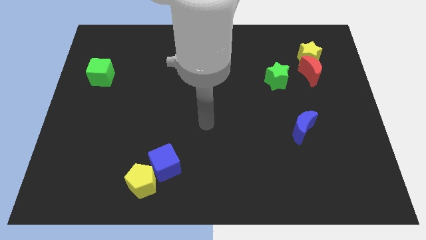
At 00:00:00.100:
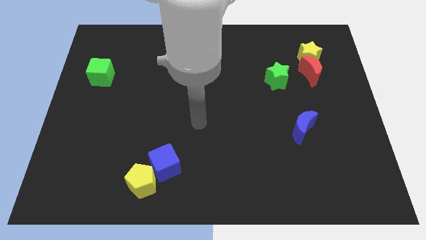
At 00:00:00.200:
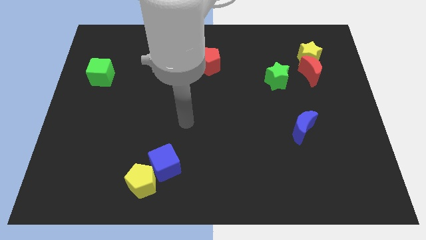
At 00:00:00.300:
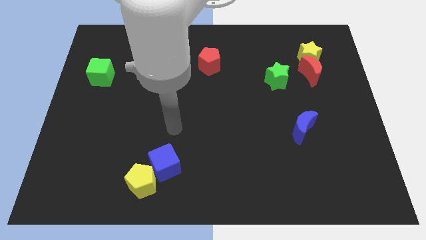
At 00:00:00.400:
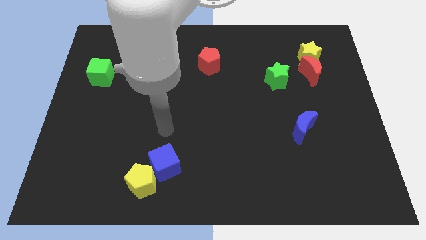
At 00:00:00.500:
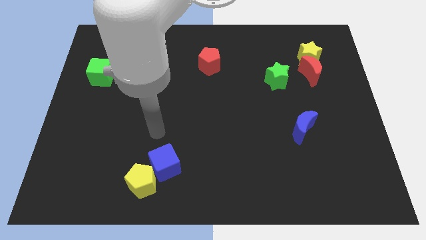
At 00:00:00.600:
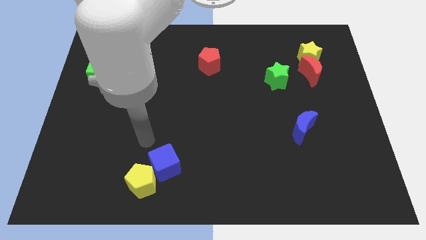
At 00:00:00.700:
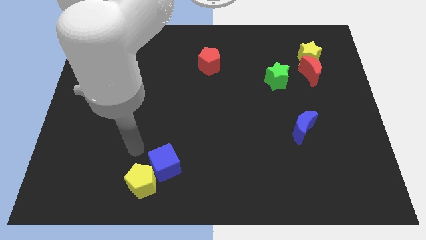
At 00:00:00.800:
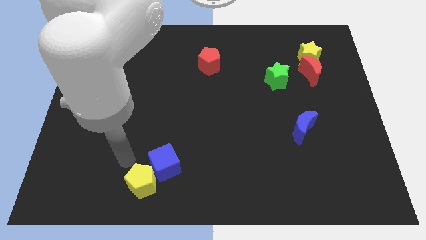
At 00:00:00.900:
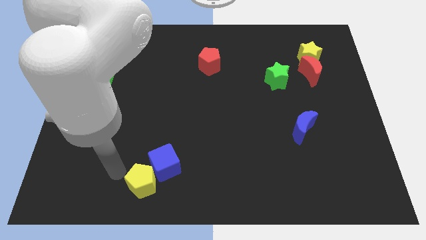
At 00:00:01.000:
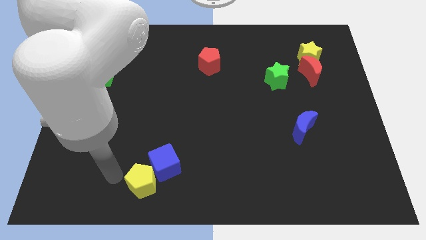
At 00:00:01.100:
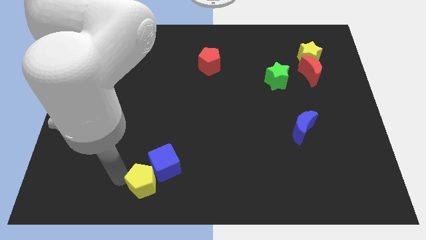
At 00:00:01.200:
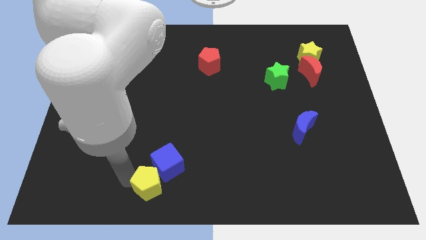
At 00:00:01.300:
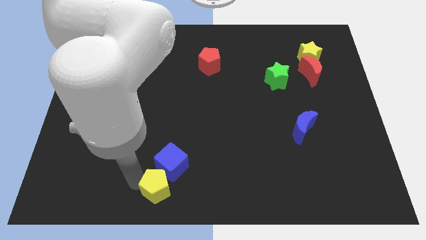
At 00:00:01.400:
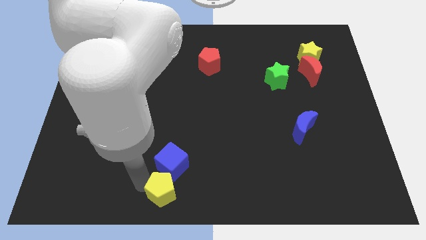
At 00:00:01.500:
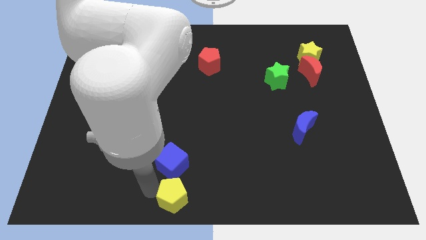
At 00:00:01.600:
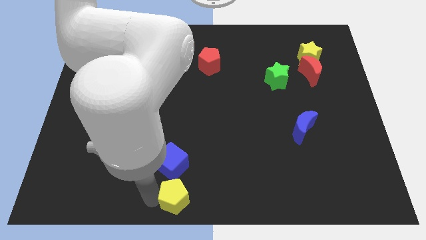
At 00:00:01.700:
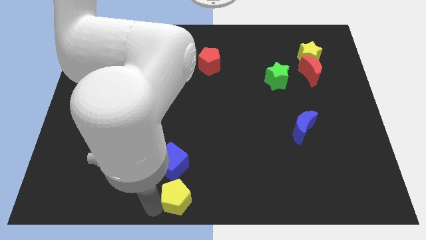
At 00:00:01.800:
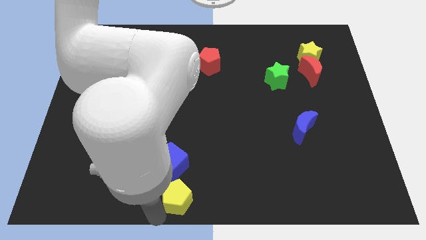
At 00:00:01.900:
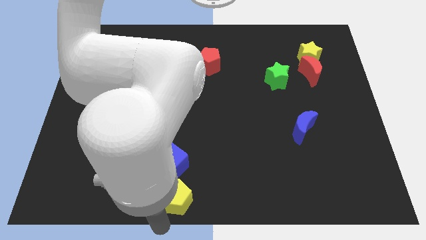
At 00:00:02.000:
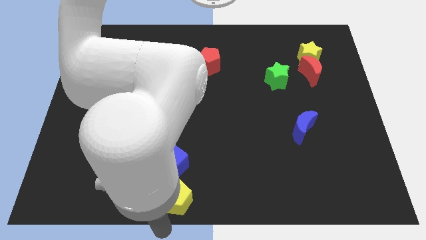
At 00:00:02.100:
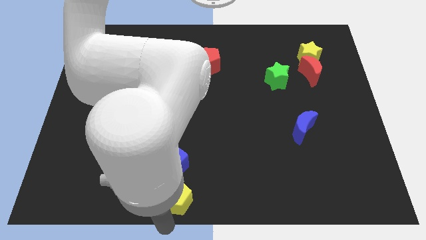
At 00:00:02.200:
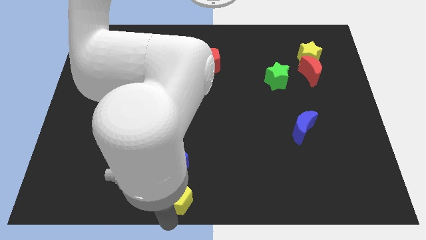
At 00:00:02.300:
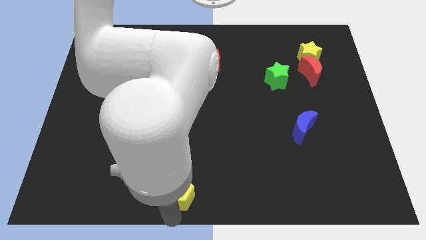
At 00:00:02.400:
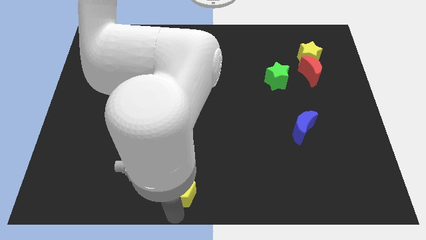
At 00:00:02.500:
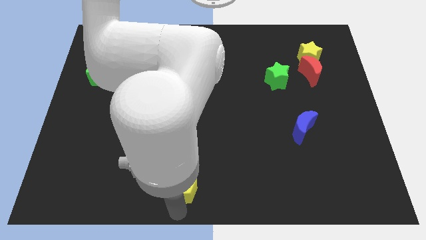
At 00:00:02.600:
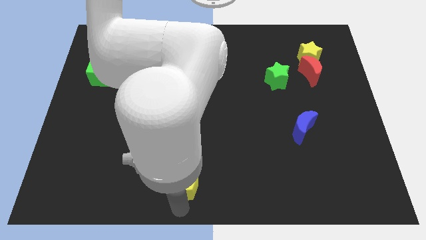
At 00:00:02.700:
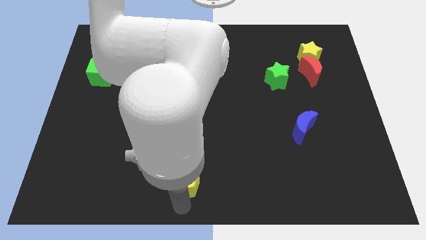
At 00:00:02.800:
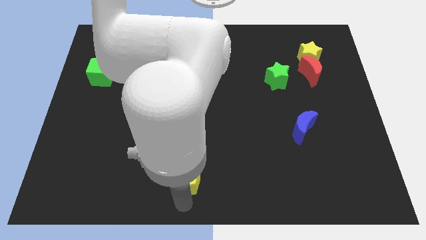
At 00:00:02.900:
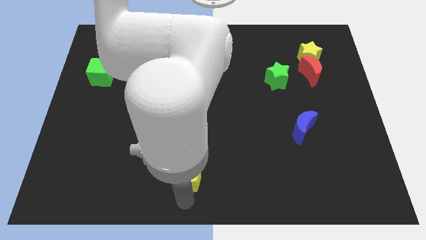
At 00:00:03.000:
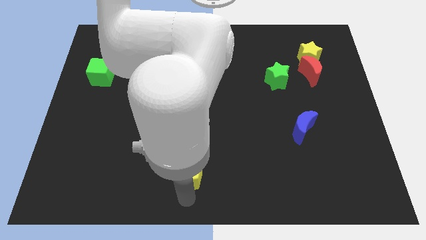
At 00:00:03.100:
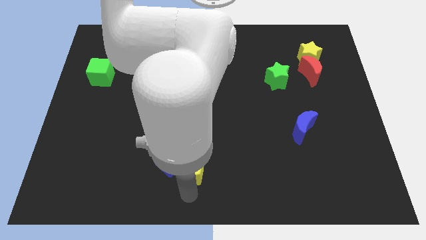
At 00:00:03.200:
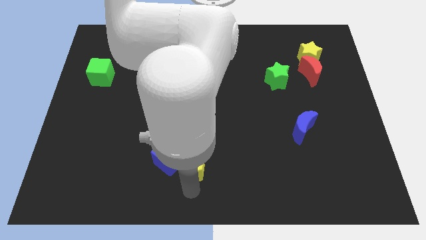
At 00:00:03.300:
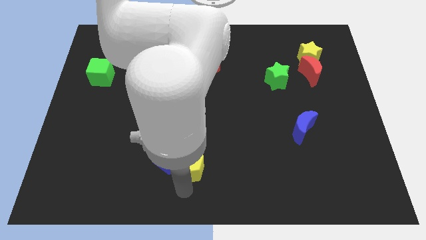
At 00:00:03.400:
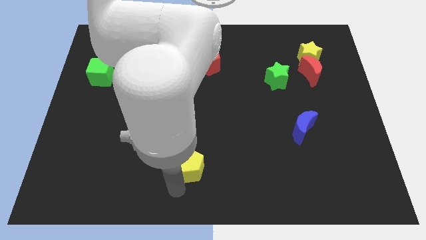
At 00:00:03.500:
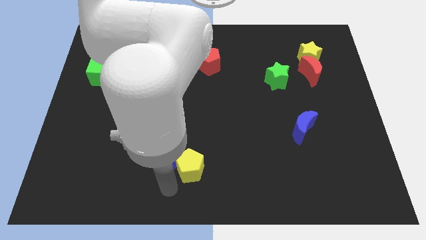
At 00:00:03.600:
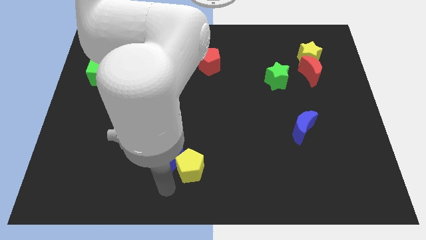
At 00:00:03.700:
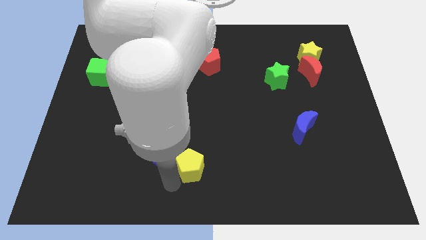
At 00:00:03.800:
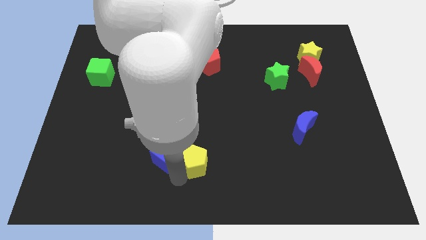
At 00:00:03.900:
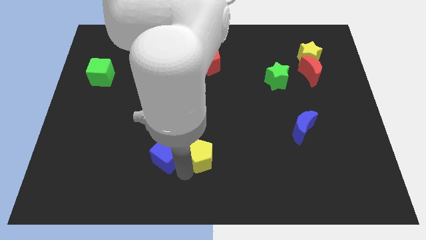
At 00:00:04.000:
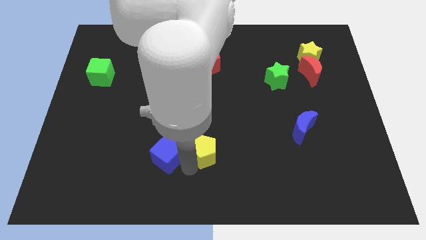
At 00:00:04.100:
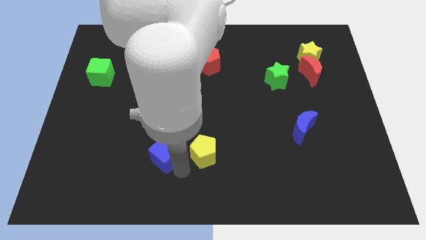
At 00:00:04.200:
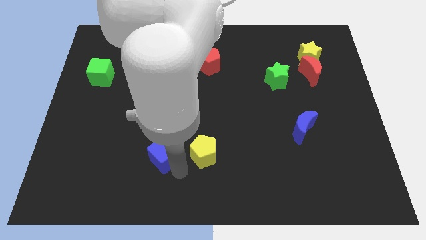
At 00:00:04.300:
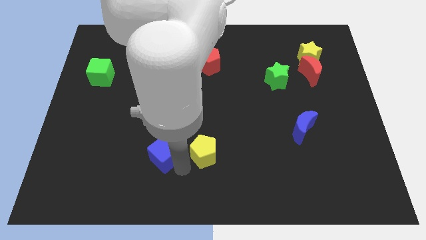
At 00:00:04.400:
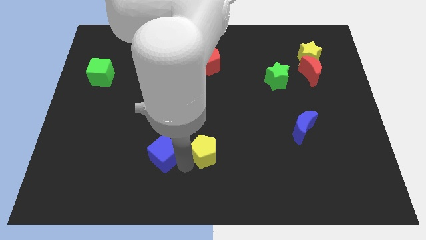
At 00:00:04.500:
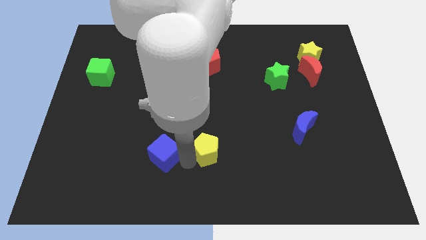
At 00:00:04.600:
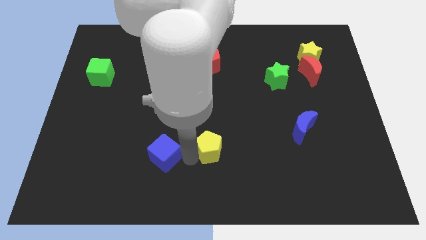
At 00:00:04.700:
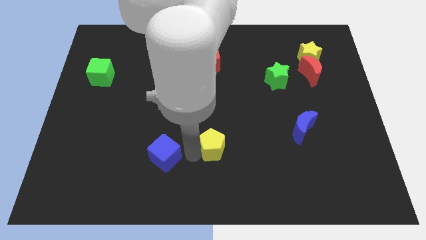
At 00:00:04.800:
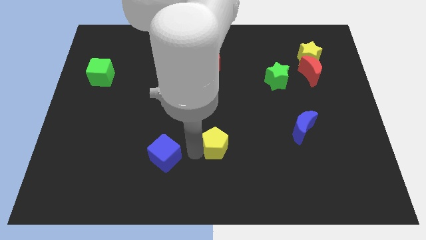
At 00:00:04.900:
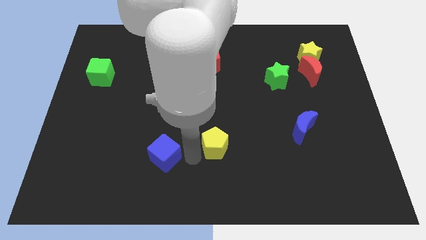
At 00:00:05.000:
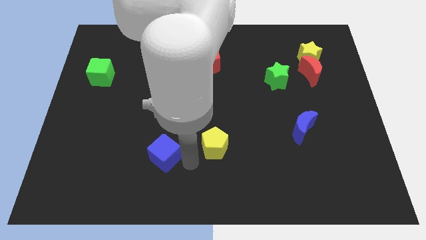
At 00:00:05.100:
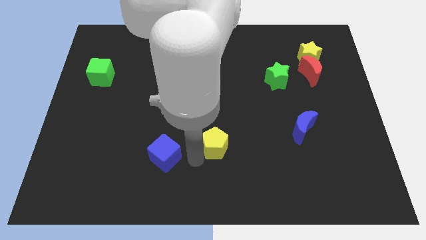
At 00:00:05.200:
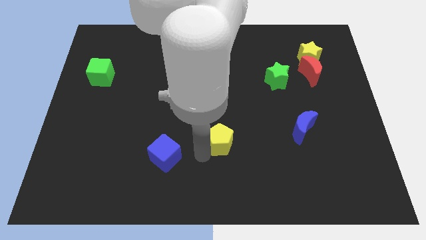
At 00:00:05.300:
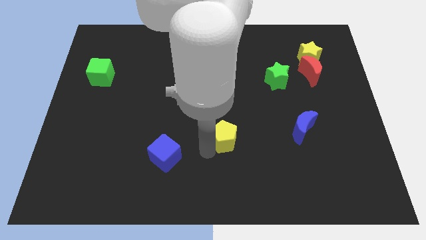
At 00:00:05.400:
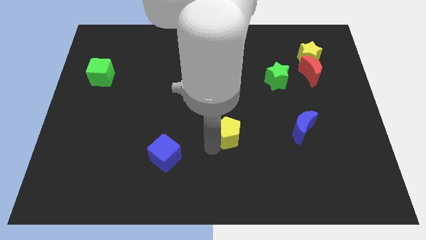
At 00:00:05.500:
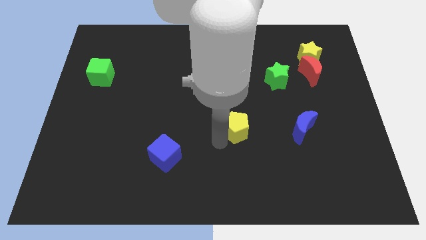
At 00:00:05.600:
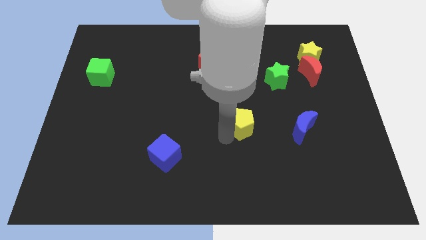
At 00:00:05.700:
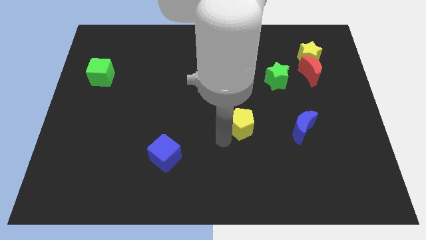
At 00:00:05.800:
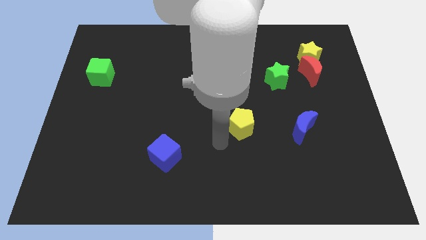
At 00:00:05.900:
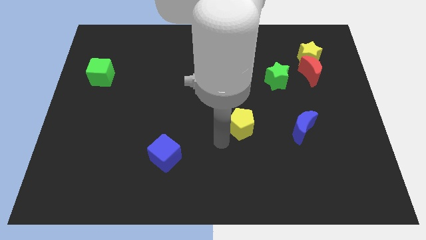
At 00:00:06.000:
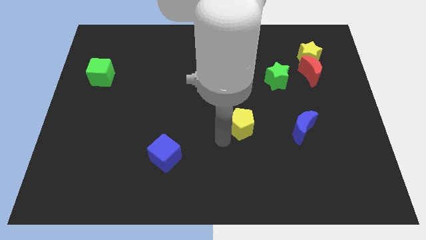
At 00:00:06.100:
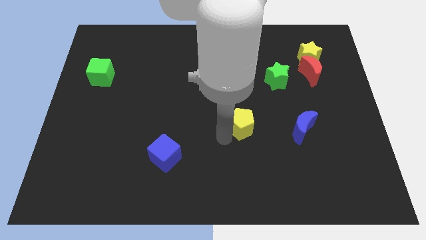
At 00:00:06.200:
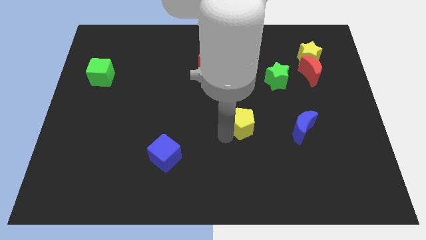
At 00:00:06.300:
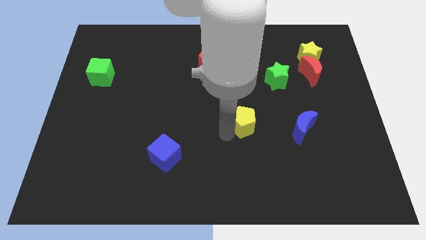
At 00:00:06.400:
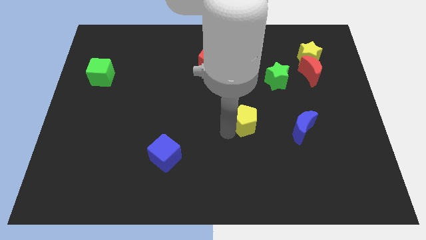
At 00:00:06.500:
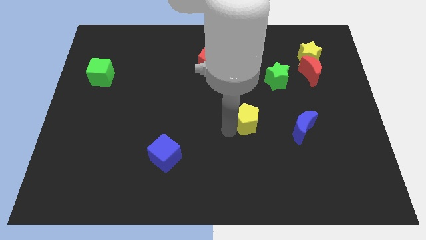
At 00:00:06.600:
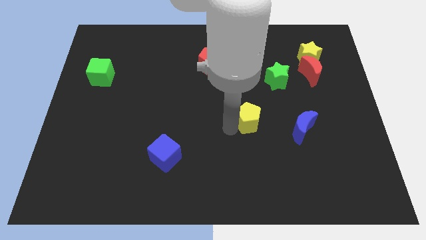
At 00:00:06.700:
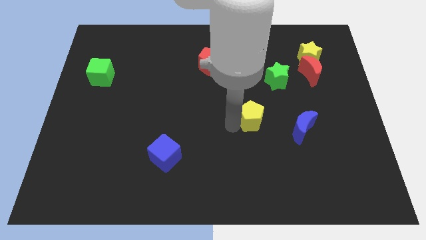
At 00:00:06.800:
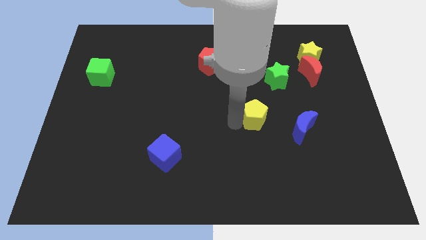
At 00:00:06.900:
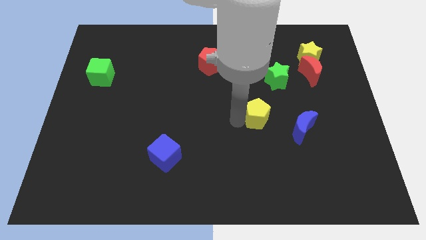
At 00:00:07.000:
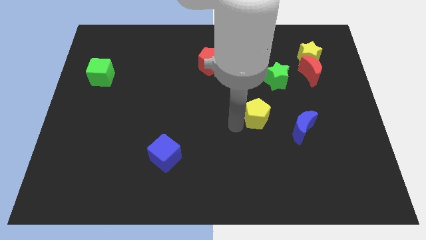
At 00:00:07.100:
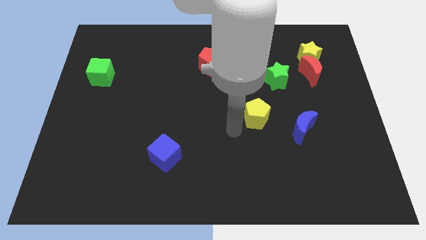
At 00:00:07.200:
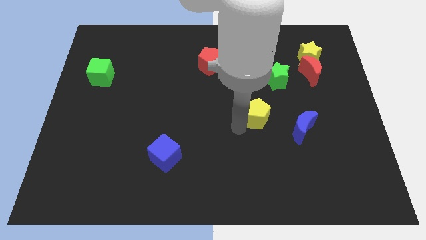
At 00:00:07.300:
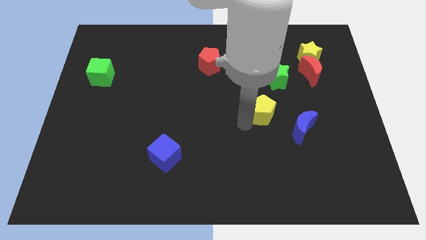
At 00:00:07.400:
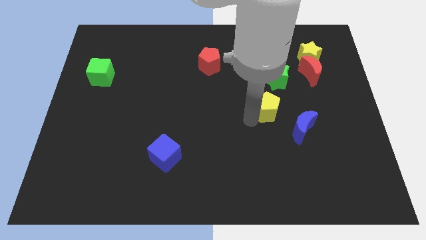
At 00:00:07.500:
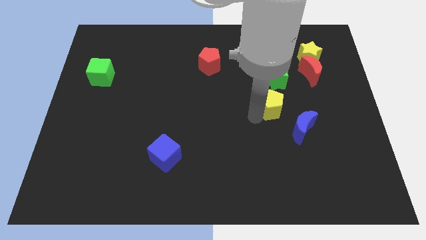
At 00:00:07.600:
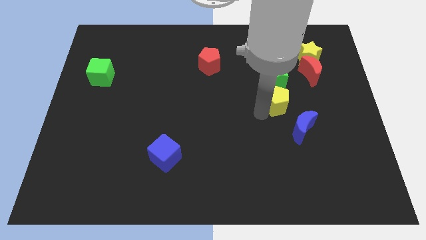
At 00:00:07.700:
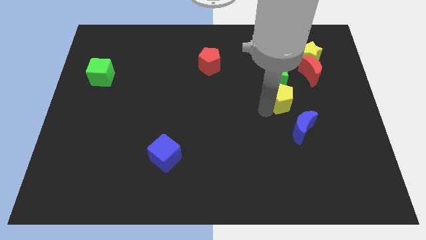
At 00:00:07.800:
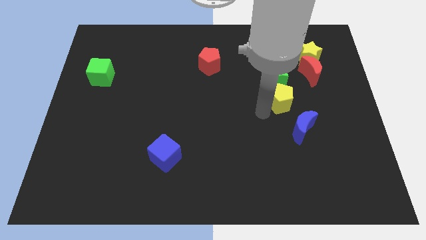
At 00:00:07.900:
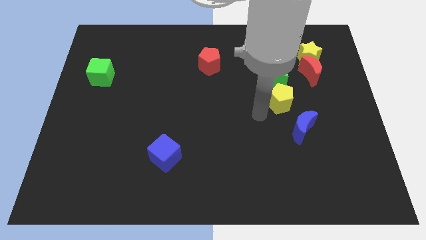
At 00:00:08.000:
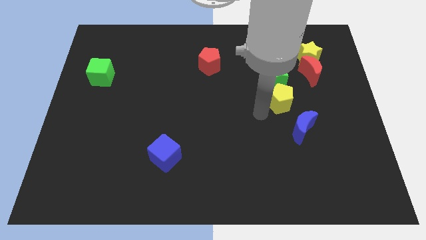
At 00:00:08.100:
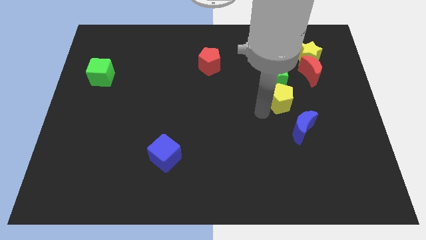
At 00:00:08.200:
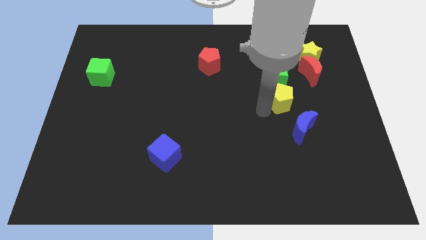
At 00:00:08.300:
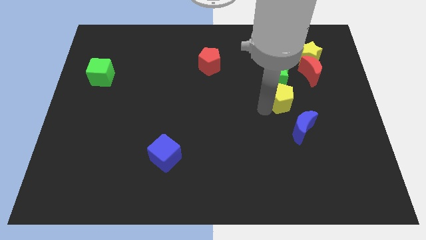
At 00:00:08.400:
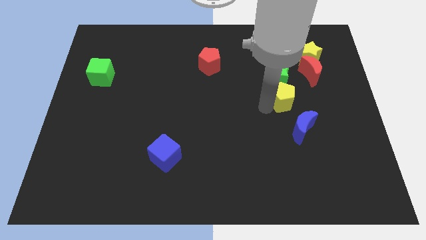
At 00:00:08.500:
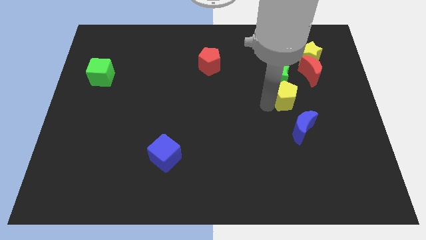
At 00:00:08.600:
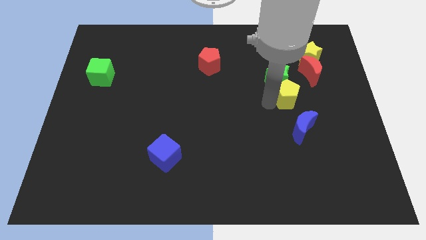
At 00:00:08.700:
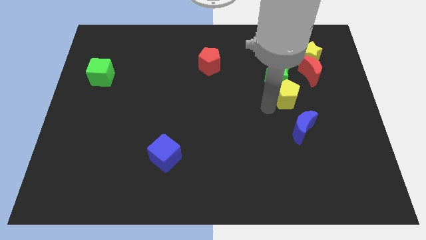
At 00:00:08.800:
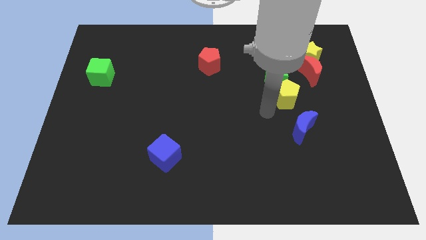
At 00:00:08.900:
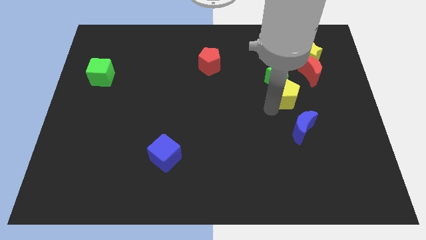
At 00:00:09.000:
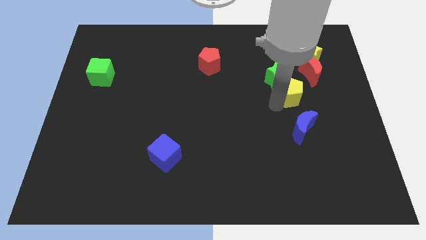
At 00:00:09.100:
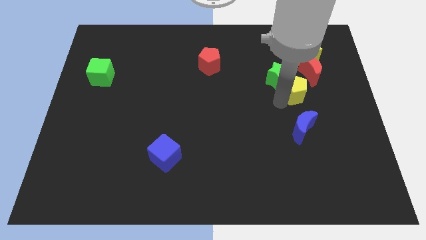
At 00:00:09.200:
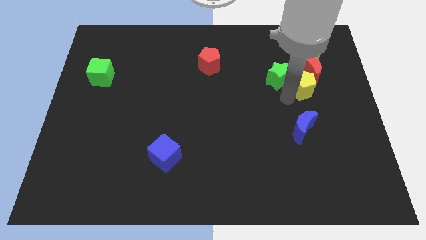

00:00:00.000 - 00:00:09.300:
move the yellow pentagon towards the red moon
